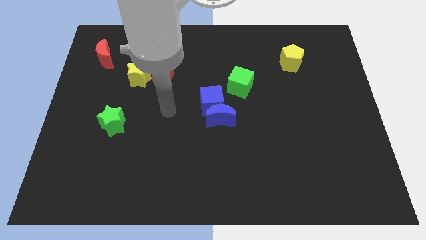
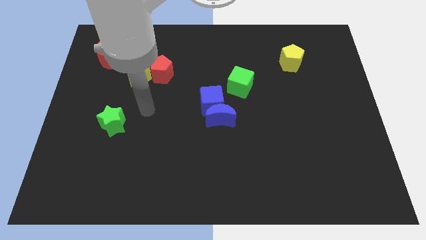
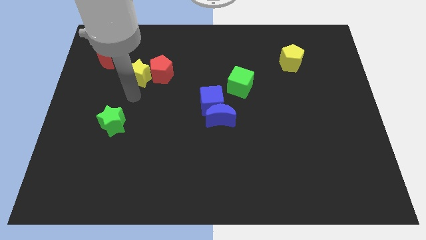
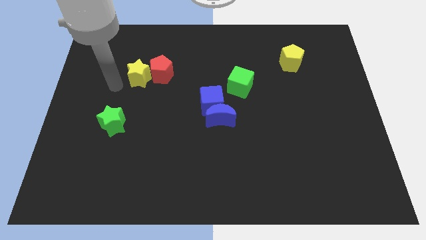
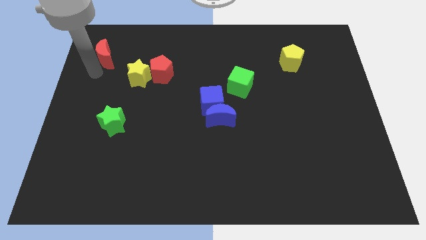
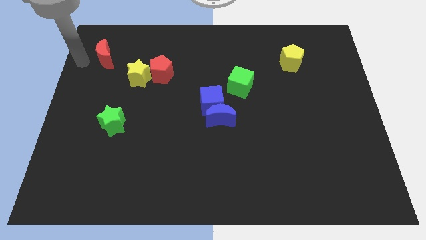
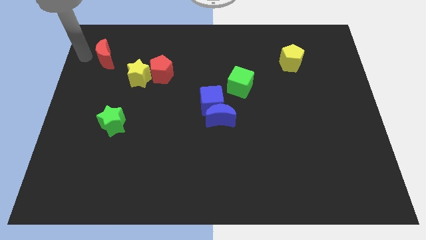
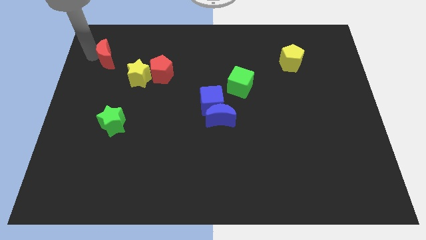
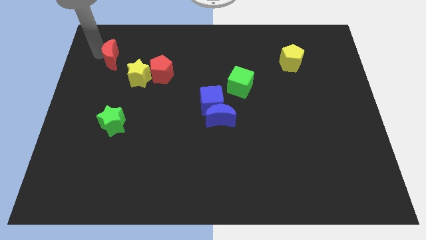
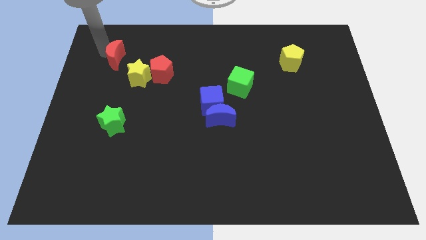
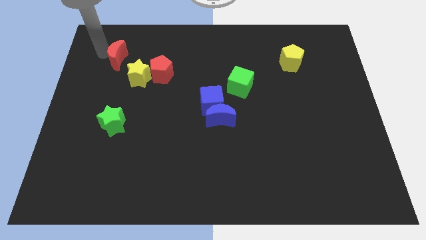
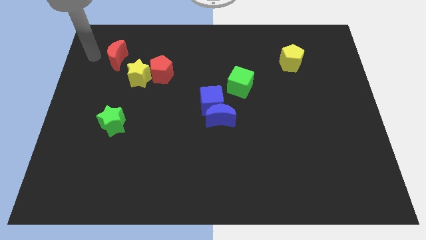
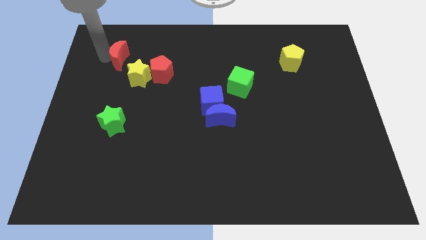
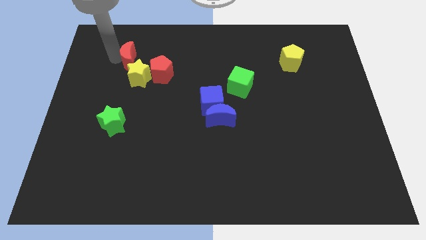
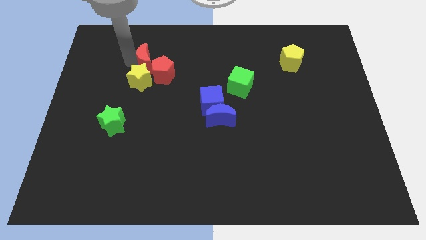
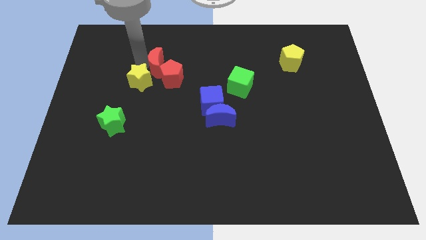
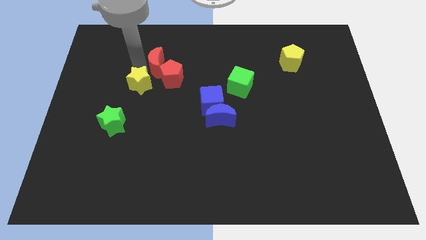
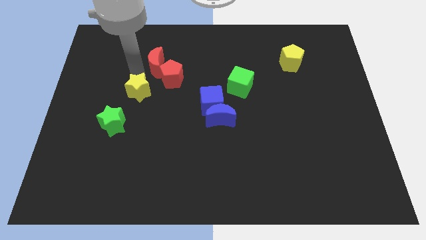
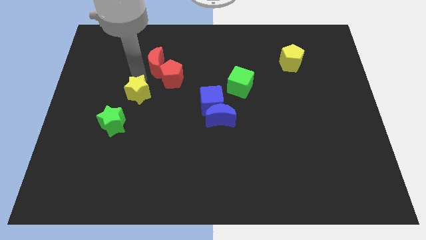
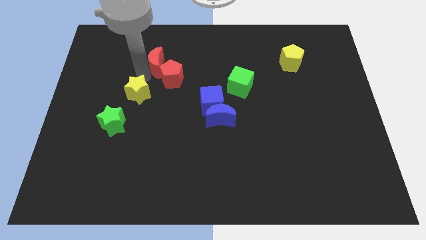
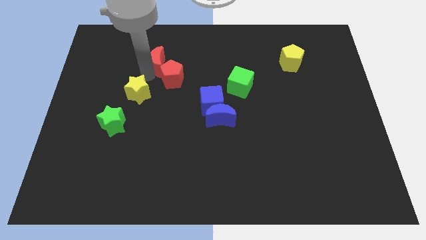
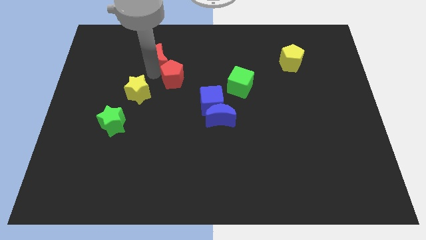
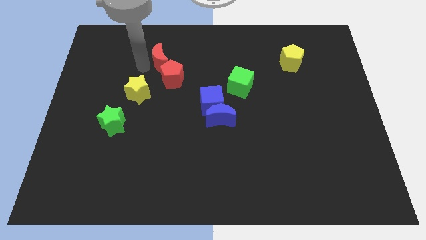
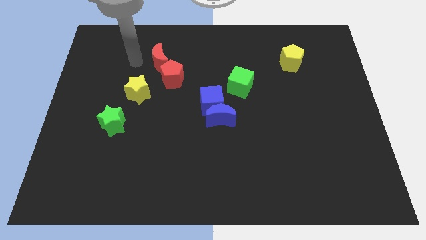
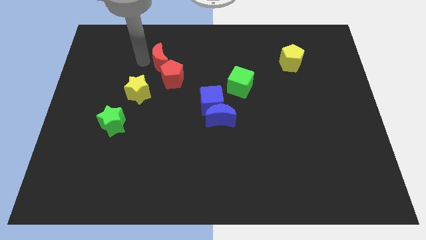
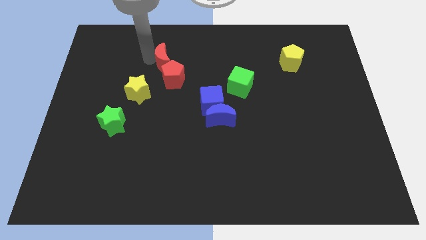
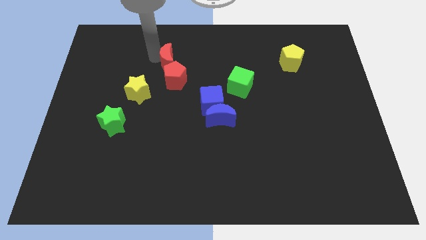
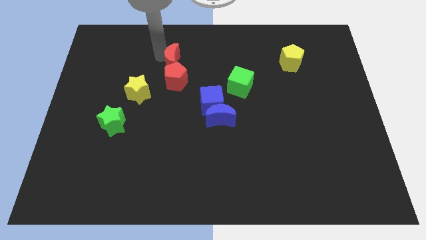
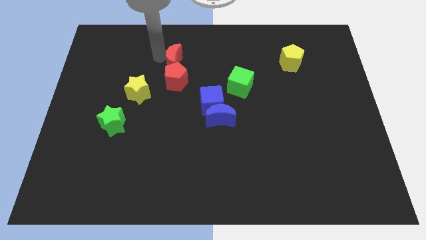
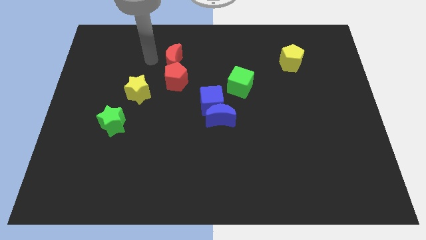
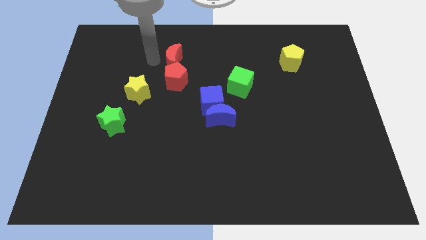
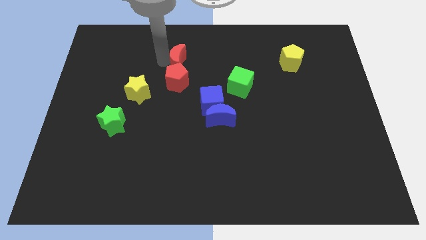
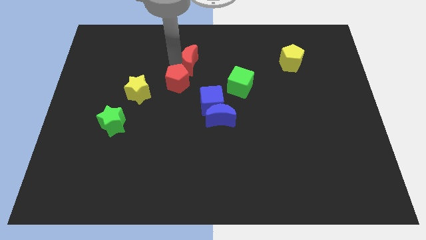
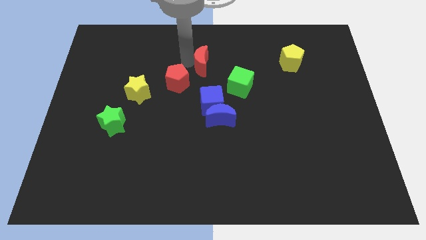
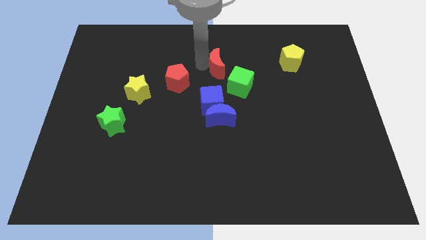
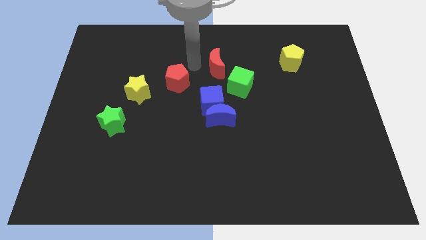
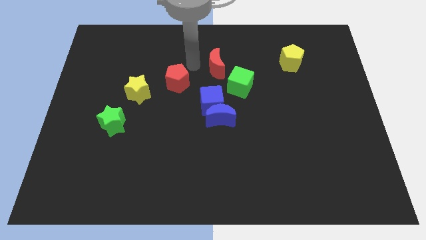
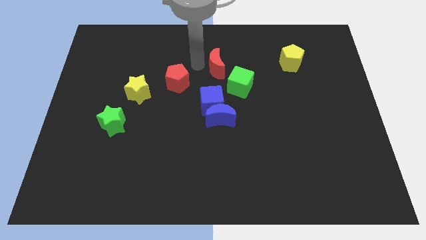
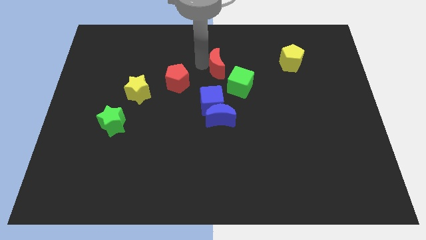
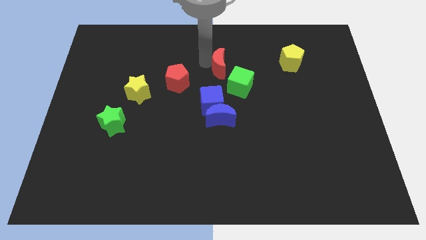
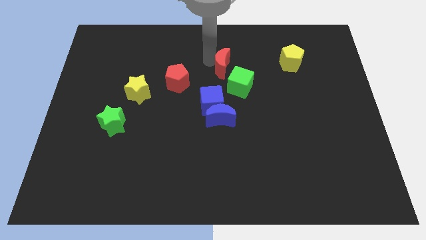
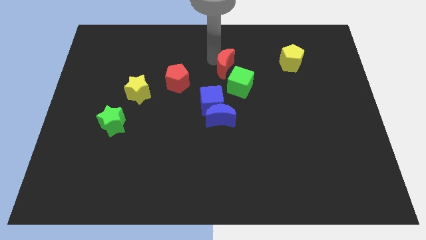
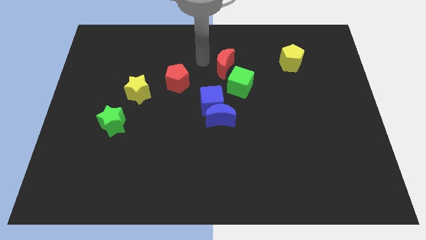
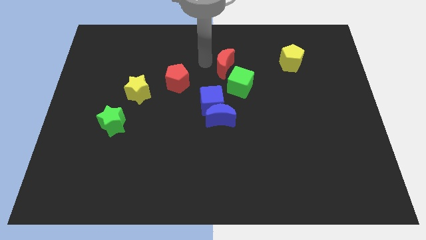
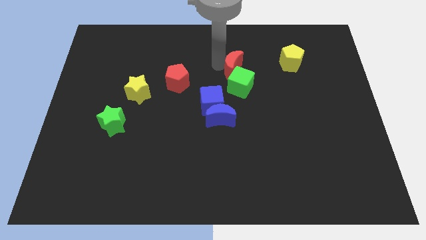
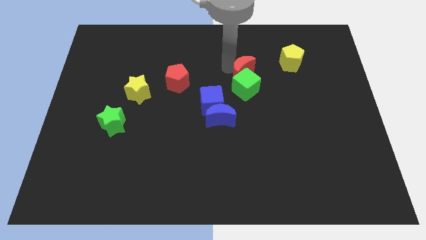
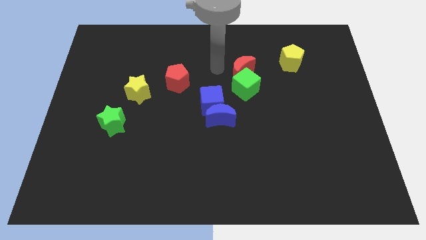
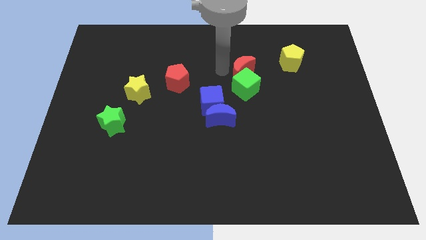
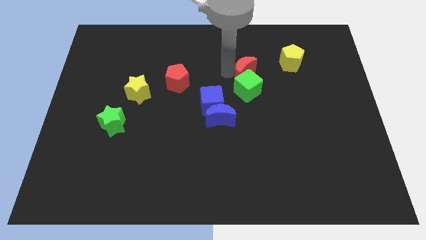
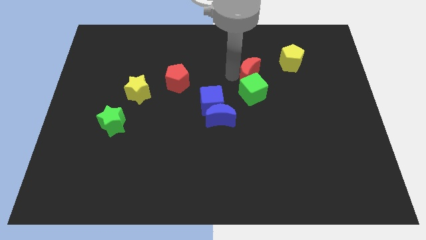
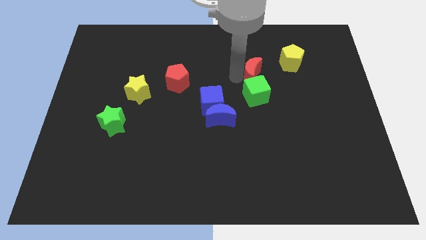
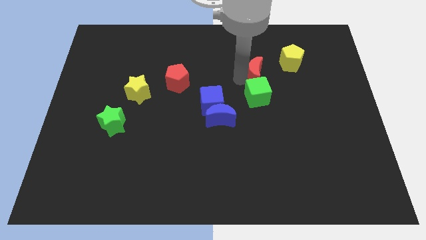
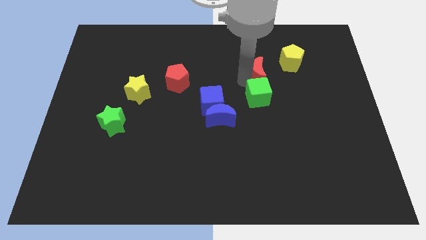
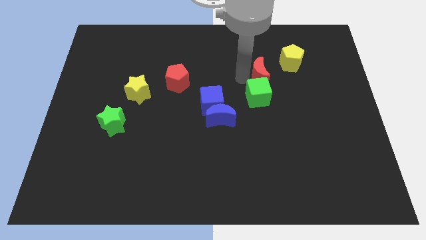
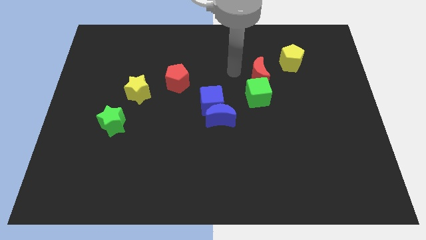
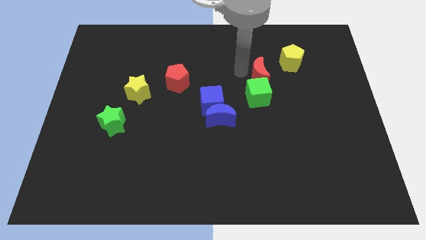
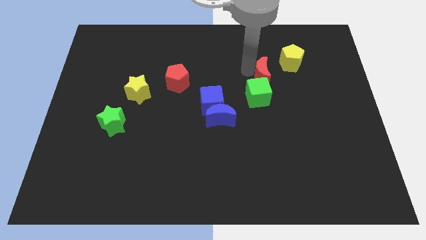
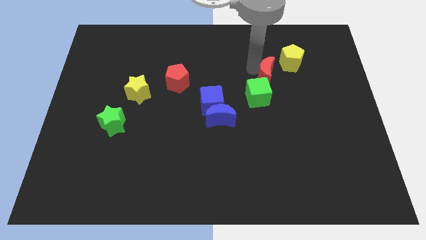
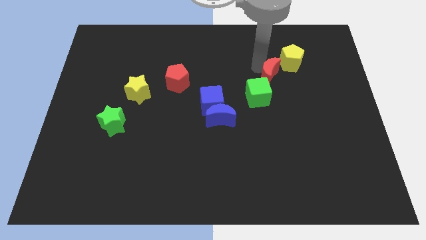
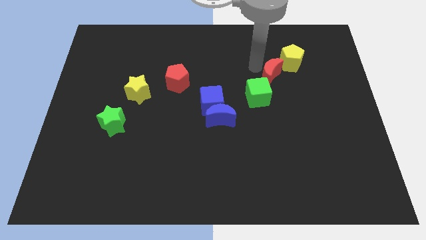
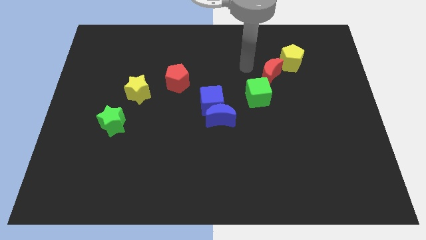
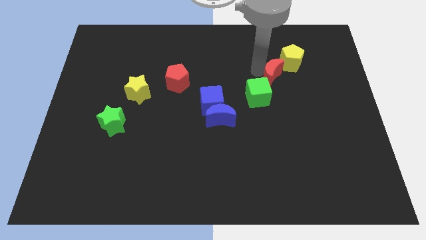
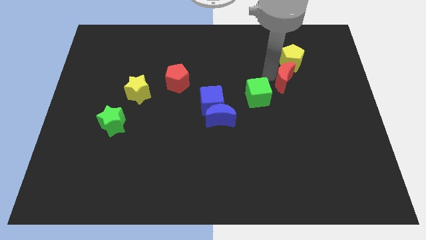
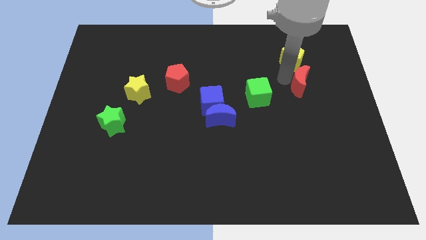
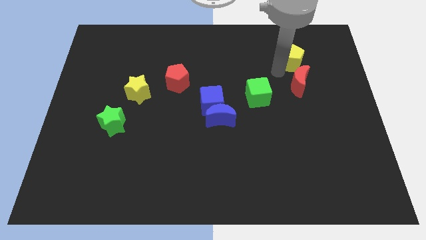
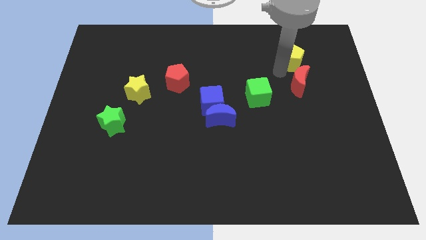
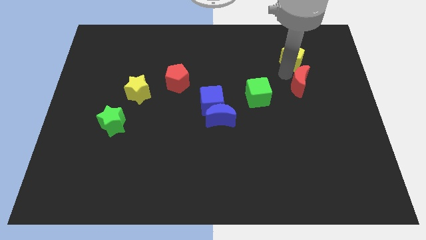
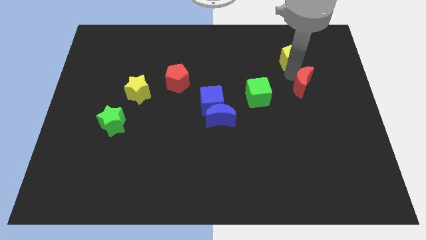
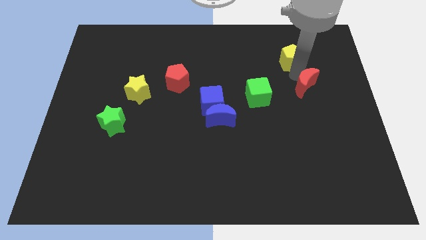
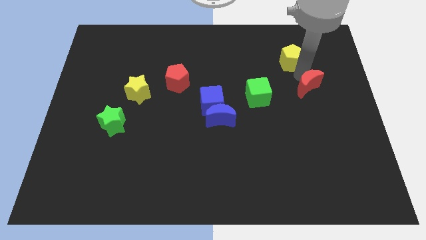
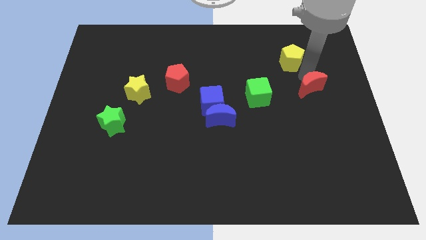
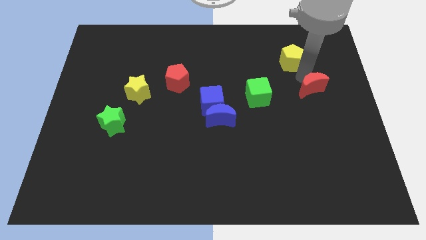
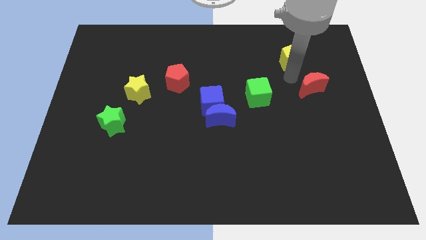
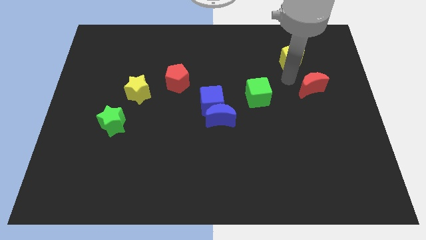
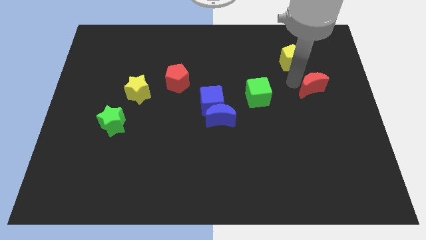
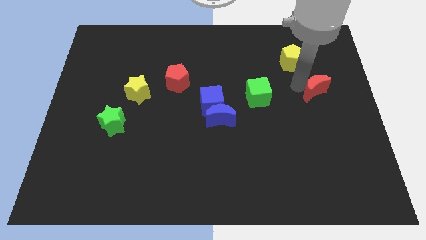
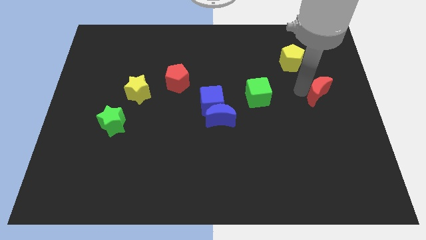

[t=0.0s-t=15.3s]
put the red moon to the right side of the board

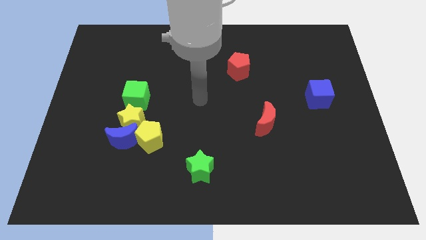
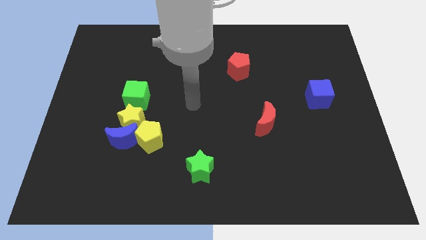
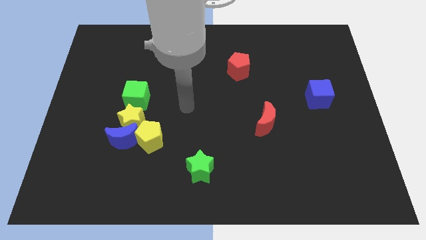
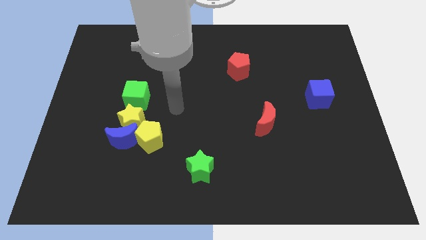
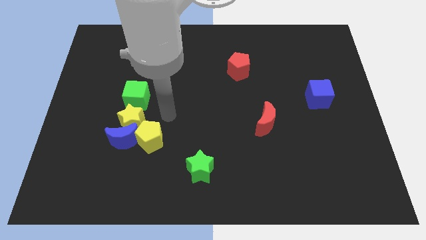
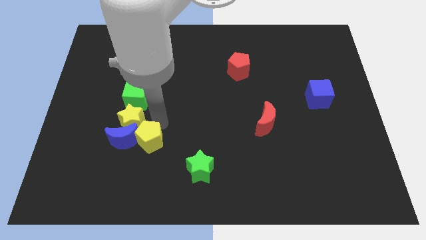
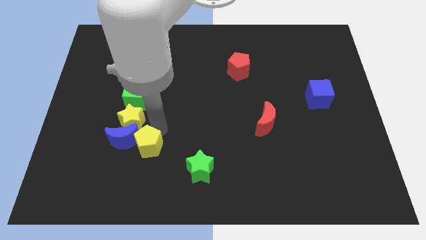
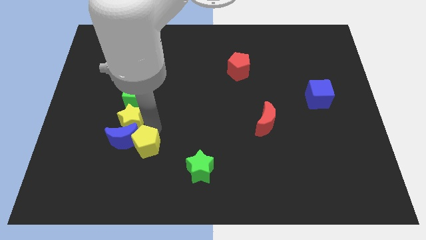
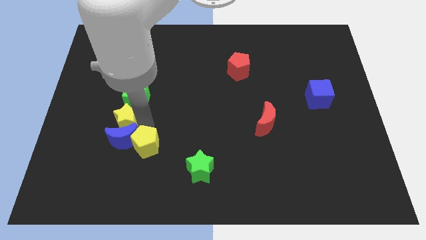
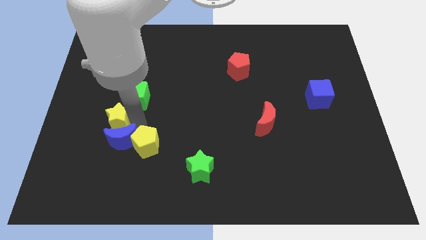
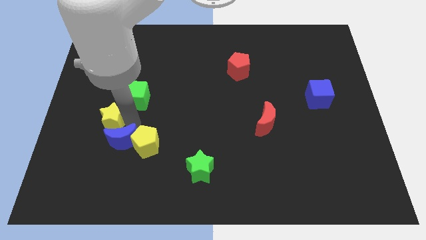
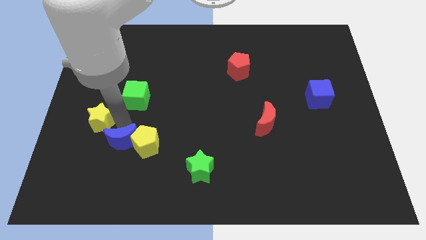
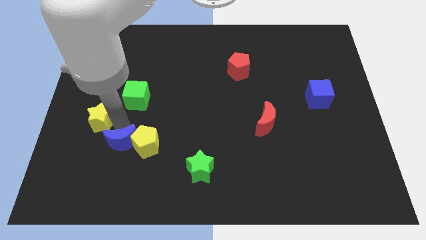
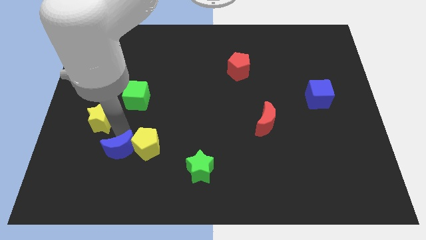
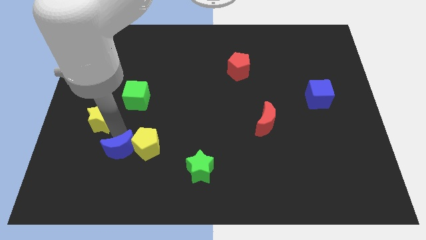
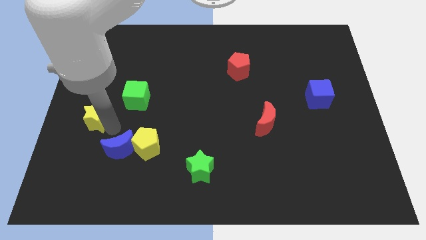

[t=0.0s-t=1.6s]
put the yellow star to the center left
